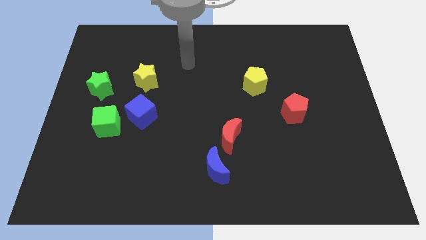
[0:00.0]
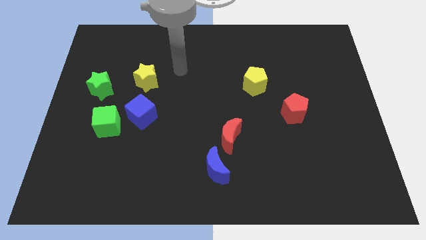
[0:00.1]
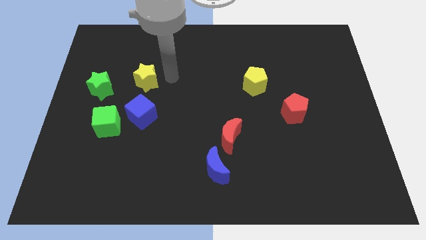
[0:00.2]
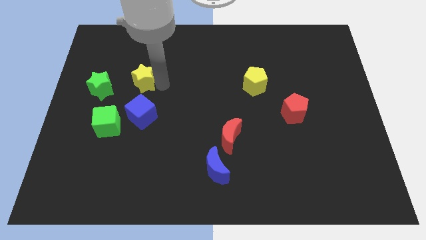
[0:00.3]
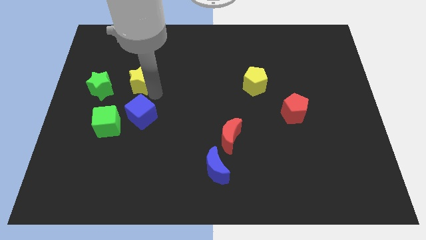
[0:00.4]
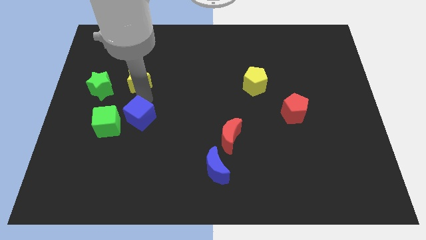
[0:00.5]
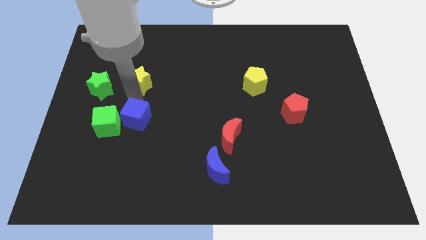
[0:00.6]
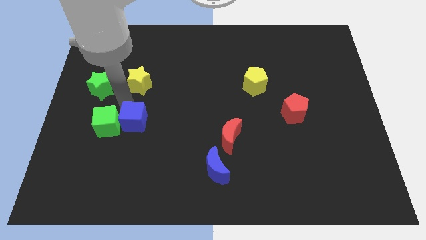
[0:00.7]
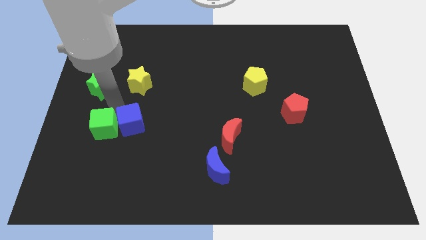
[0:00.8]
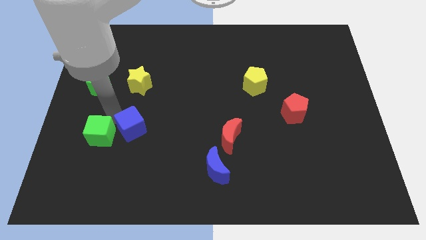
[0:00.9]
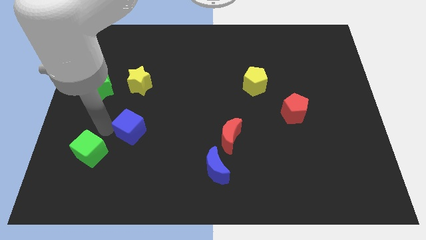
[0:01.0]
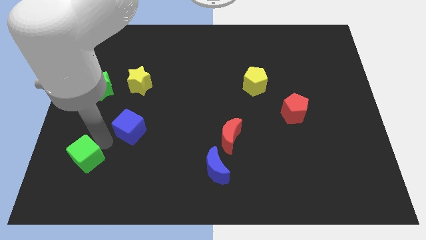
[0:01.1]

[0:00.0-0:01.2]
move the blue cube away from the green cube

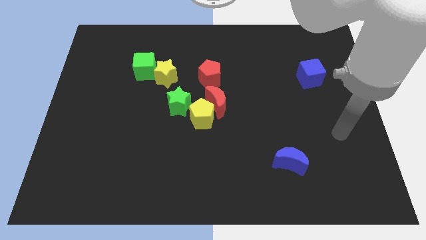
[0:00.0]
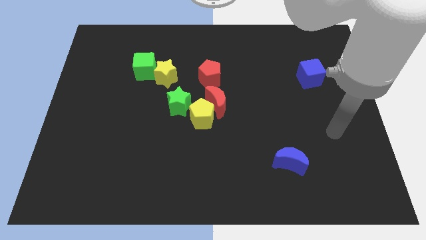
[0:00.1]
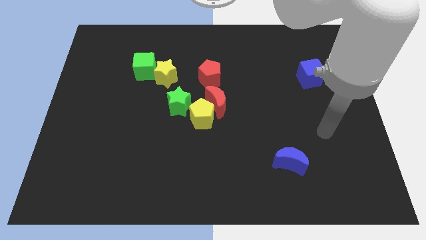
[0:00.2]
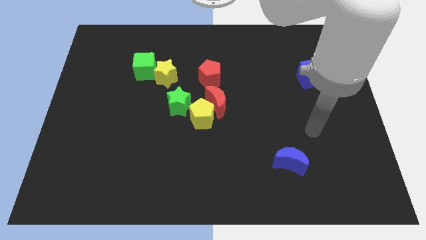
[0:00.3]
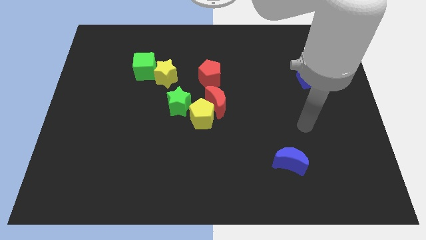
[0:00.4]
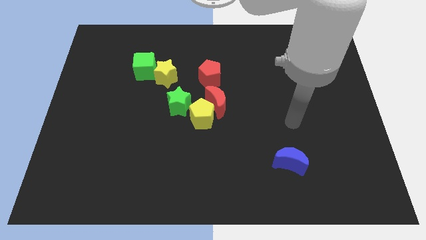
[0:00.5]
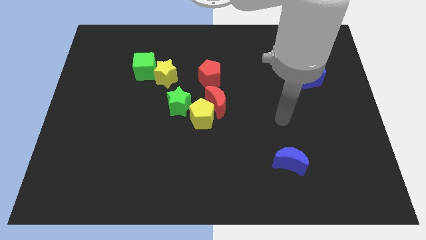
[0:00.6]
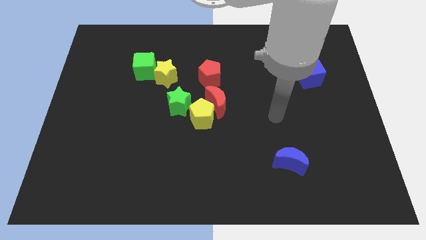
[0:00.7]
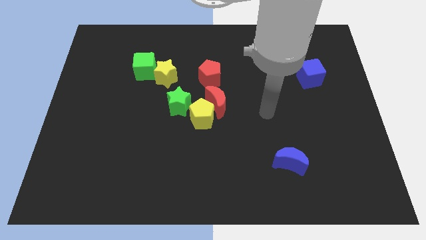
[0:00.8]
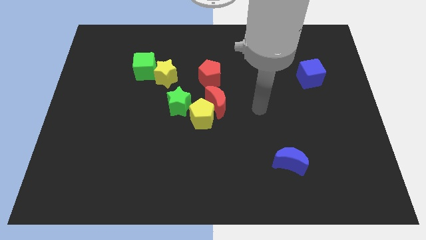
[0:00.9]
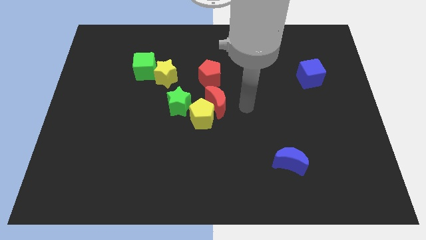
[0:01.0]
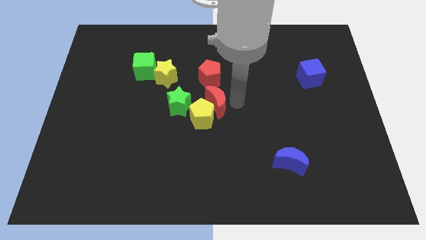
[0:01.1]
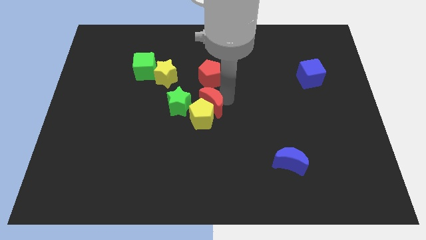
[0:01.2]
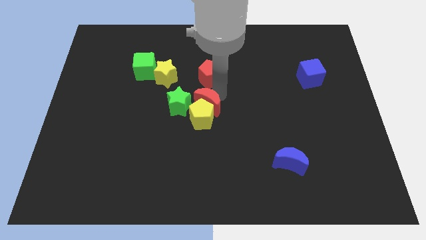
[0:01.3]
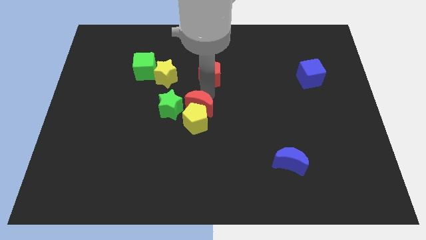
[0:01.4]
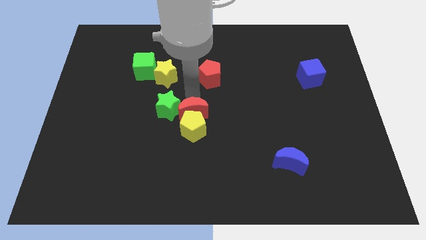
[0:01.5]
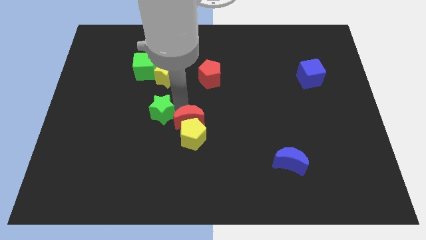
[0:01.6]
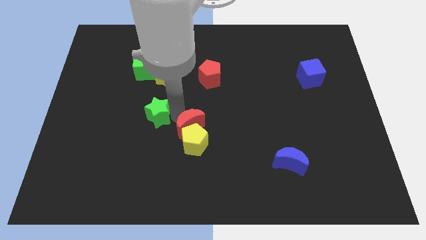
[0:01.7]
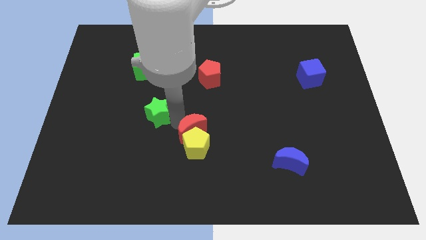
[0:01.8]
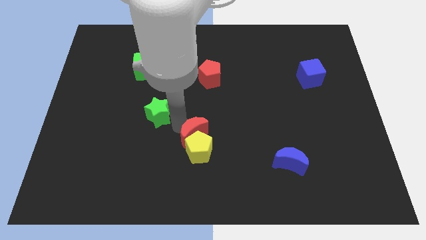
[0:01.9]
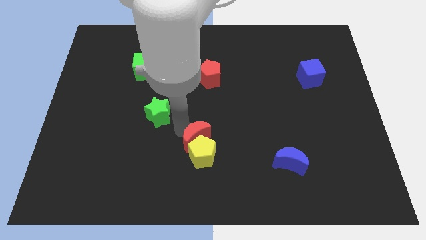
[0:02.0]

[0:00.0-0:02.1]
separate the yellow pentagon from the red moon and green star

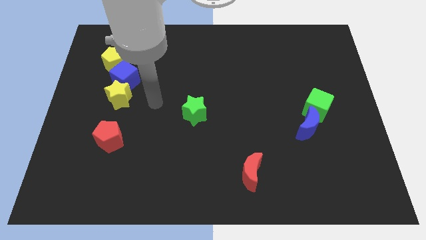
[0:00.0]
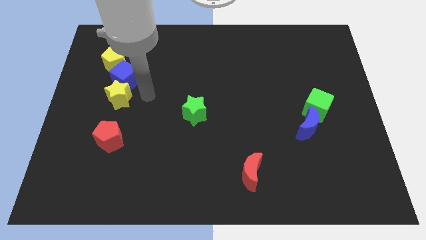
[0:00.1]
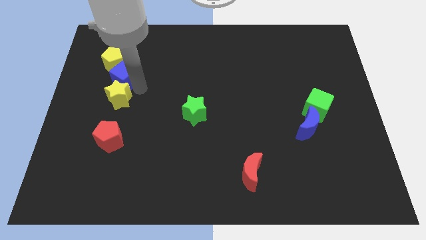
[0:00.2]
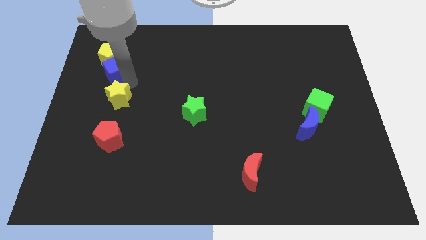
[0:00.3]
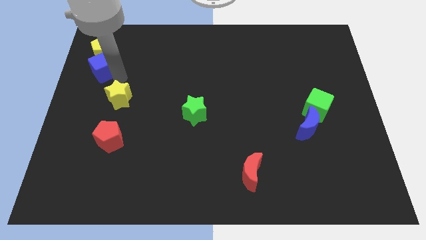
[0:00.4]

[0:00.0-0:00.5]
move the yellow star away from the blue cube

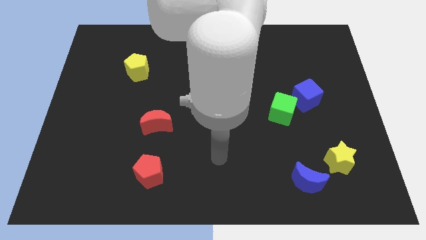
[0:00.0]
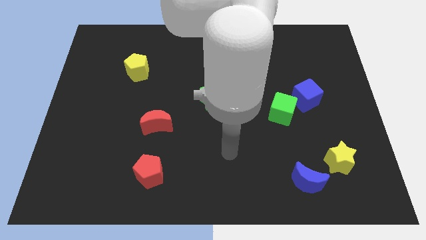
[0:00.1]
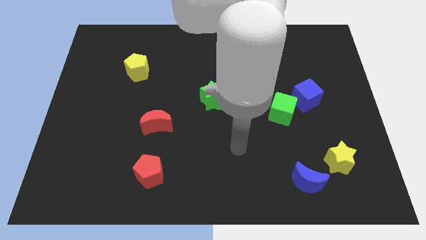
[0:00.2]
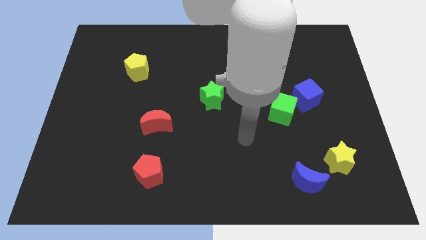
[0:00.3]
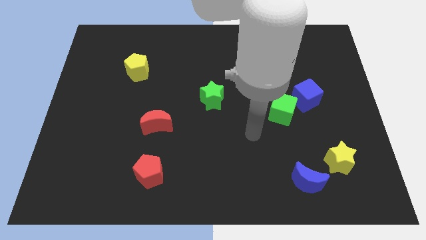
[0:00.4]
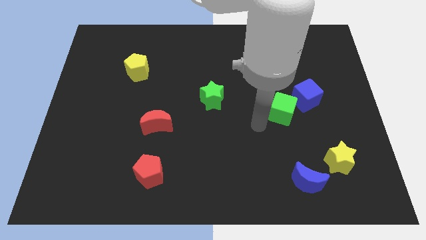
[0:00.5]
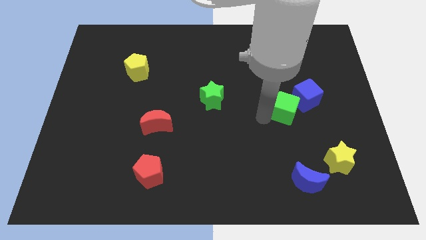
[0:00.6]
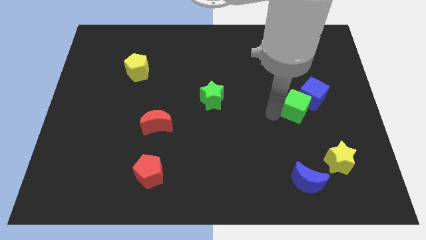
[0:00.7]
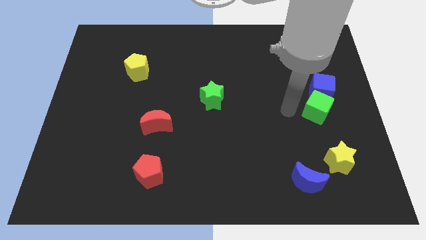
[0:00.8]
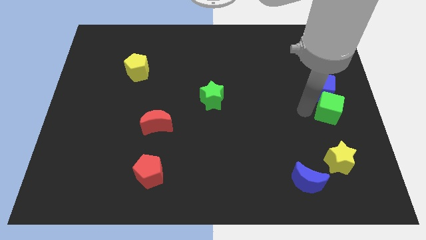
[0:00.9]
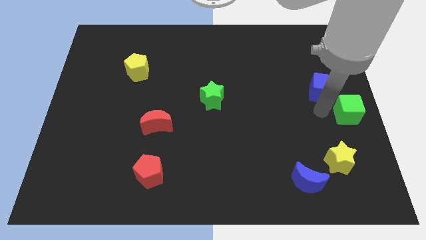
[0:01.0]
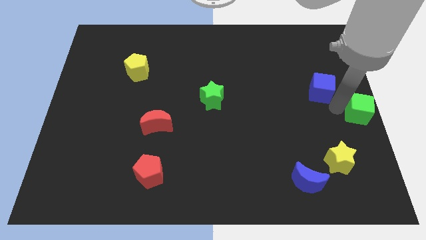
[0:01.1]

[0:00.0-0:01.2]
separate the blue cube from the green cube

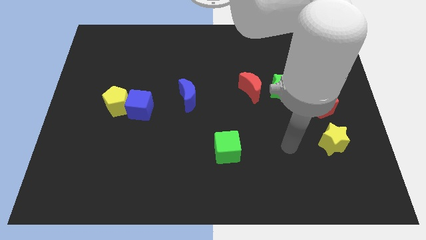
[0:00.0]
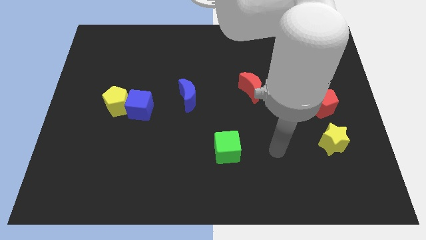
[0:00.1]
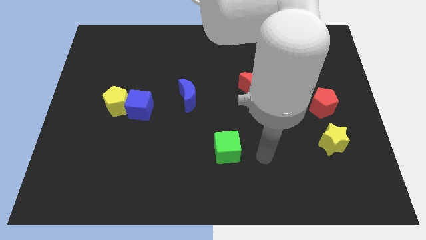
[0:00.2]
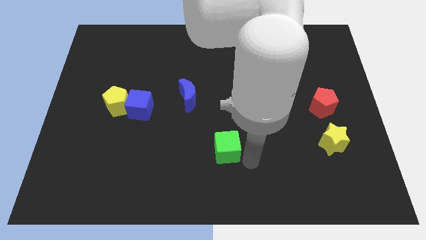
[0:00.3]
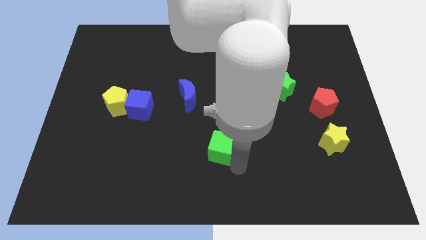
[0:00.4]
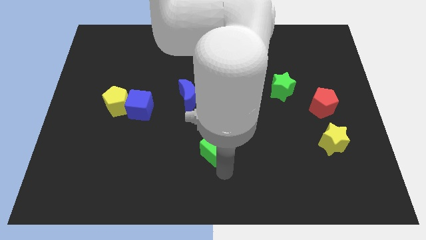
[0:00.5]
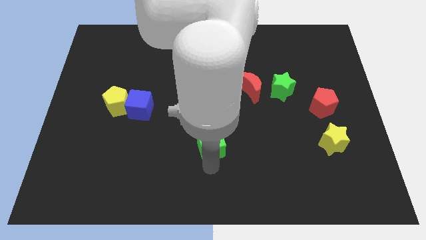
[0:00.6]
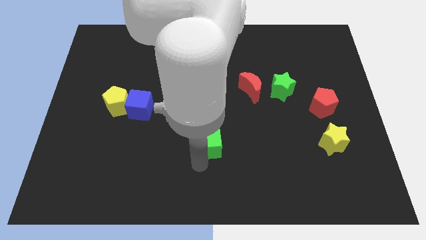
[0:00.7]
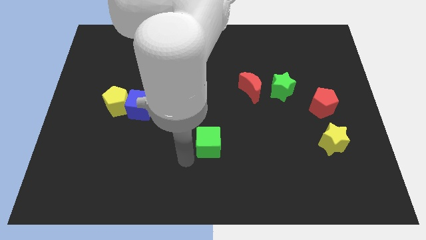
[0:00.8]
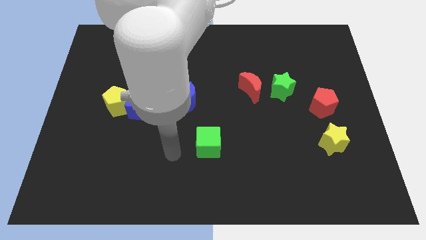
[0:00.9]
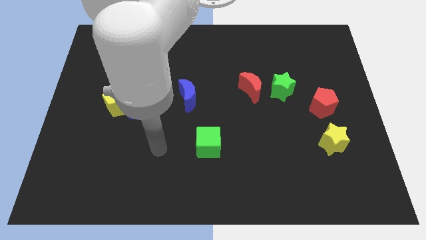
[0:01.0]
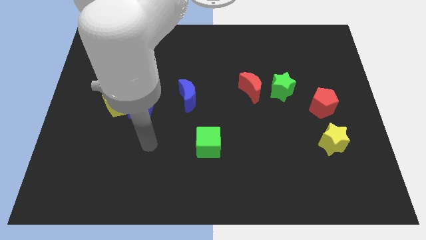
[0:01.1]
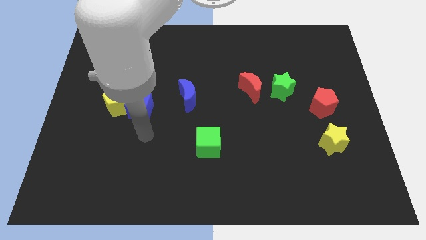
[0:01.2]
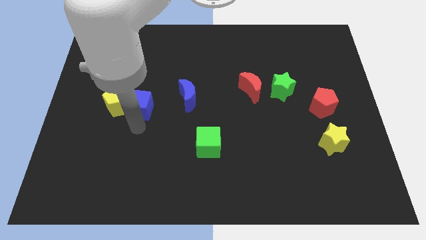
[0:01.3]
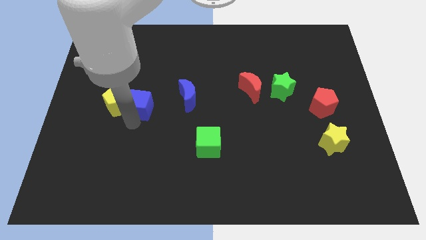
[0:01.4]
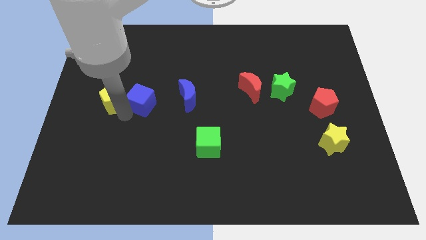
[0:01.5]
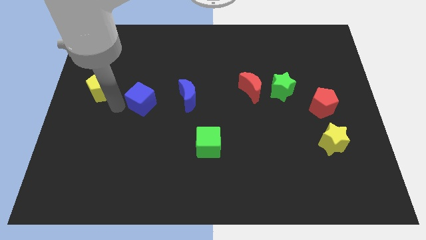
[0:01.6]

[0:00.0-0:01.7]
separate the blue cube from the yellow pentagon

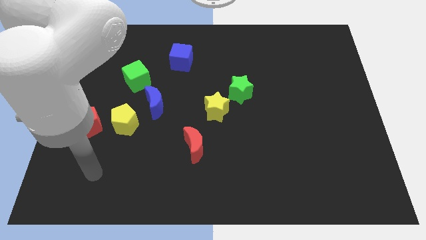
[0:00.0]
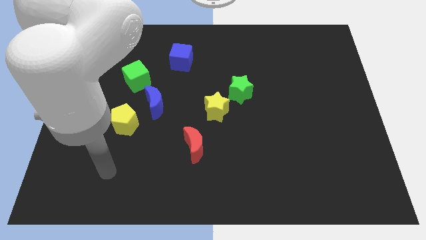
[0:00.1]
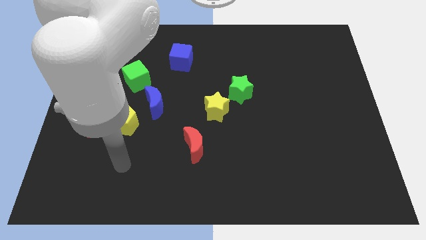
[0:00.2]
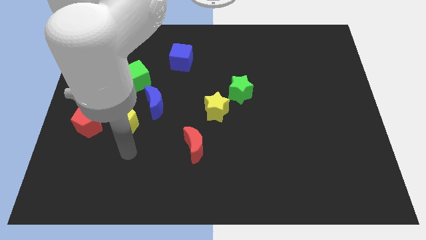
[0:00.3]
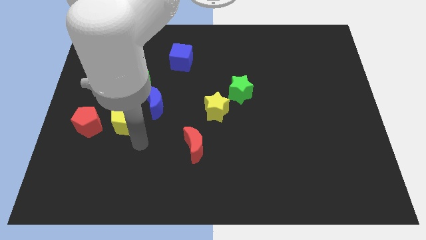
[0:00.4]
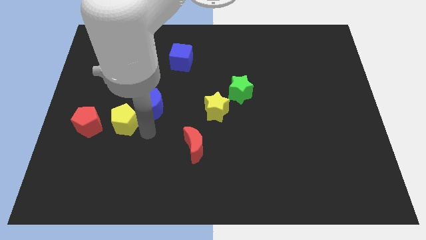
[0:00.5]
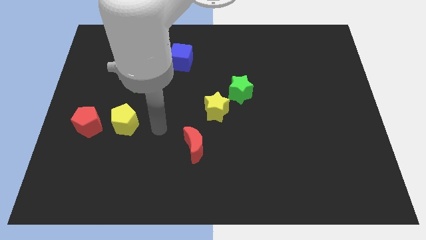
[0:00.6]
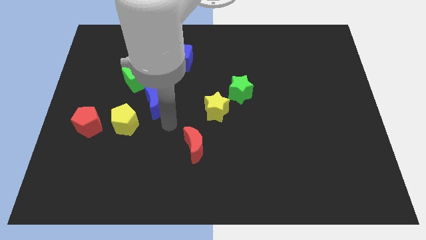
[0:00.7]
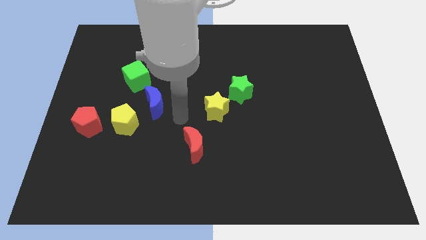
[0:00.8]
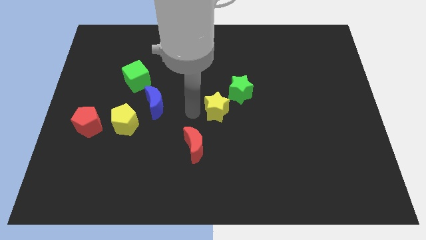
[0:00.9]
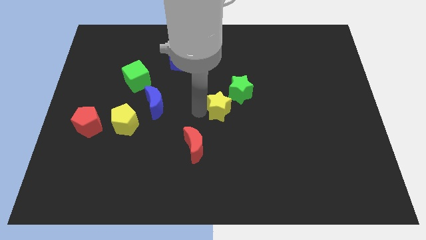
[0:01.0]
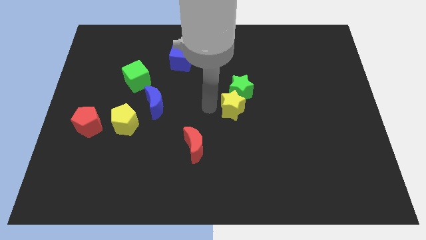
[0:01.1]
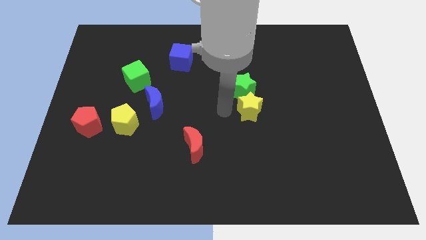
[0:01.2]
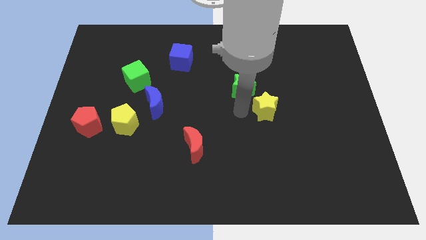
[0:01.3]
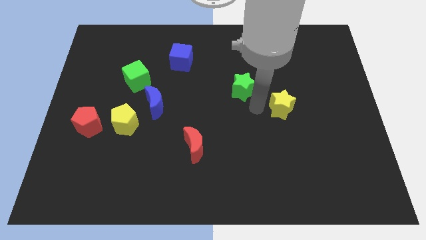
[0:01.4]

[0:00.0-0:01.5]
separate the green star from the yellow star

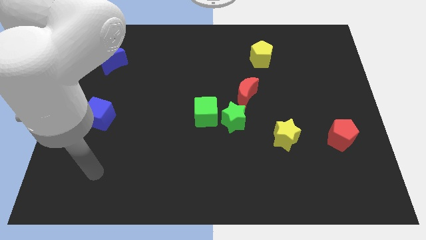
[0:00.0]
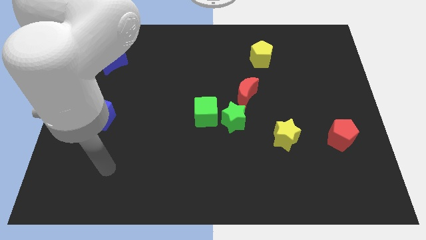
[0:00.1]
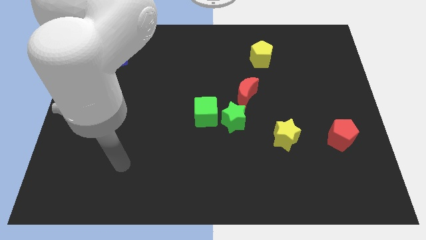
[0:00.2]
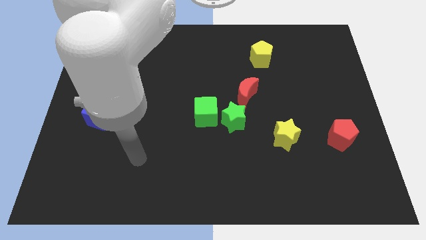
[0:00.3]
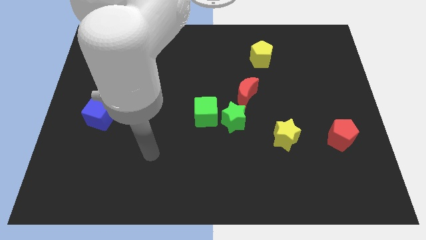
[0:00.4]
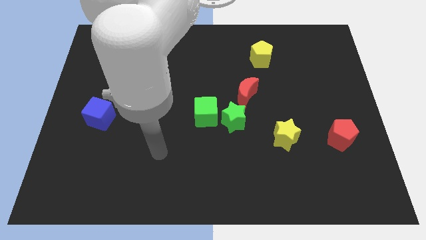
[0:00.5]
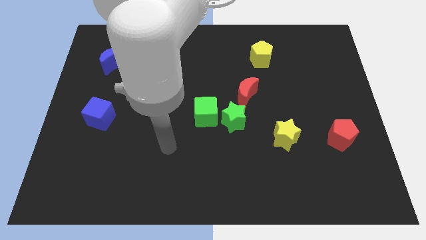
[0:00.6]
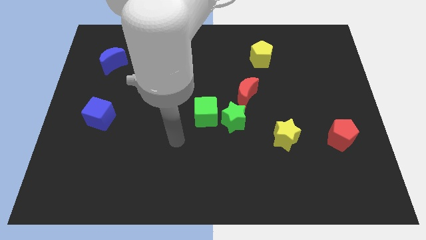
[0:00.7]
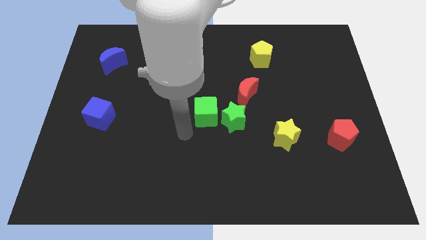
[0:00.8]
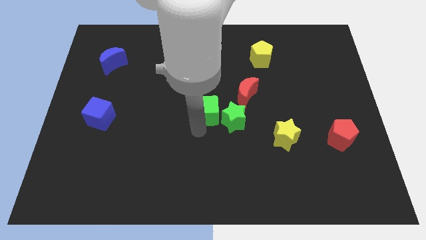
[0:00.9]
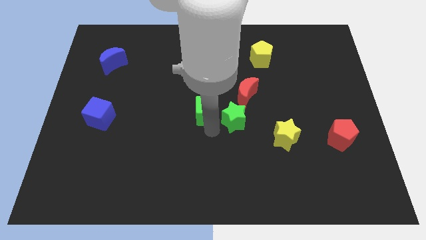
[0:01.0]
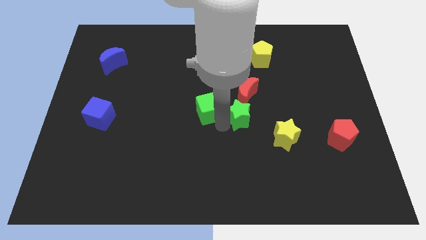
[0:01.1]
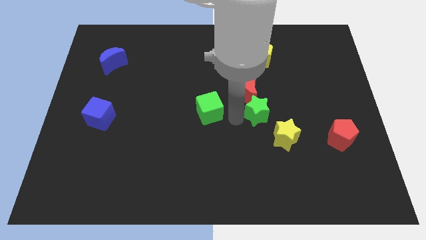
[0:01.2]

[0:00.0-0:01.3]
pull the green cube apart from the green star
